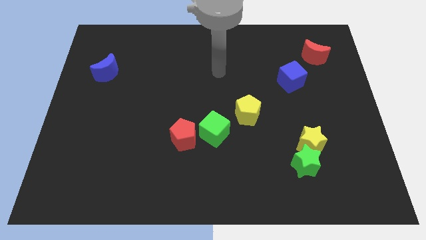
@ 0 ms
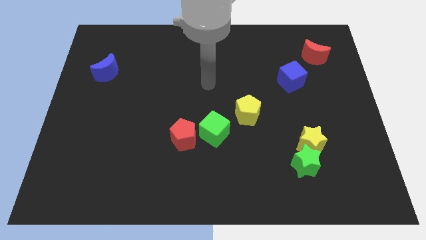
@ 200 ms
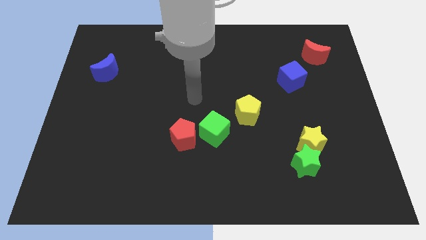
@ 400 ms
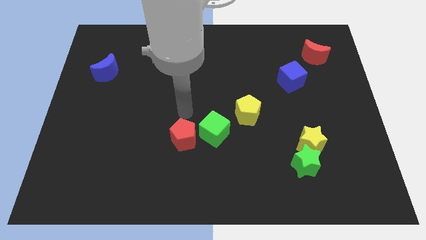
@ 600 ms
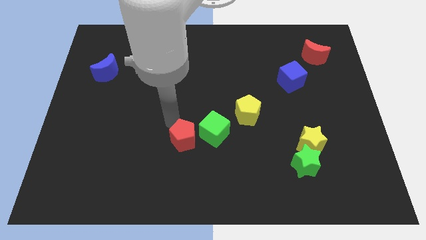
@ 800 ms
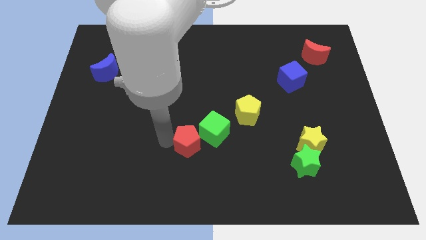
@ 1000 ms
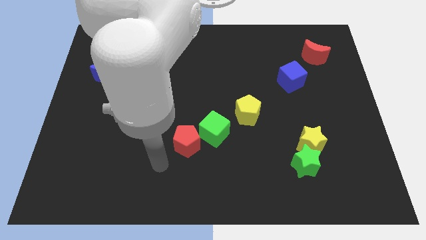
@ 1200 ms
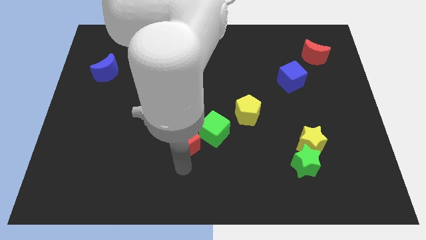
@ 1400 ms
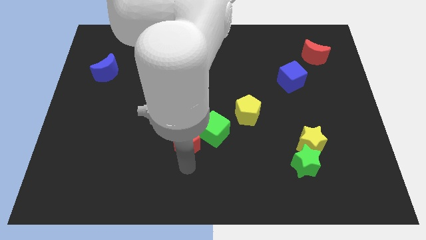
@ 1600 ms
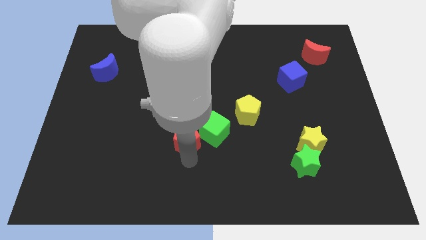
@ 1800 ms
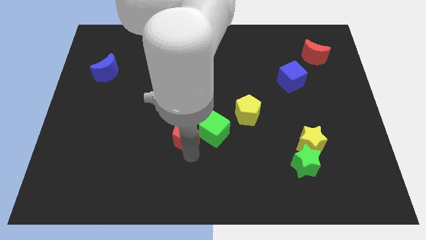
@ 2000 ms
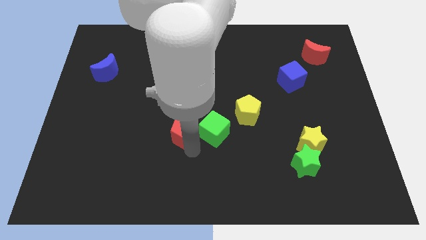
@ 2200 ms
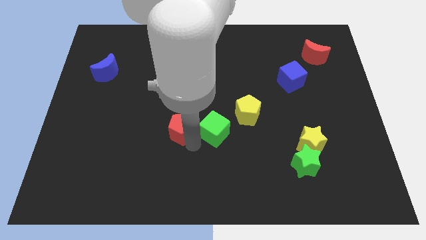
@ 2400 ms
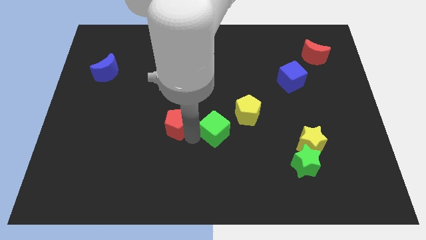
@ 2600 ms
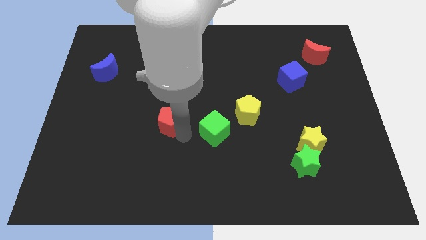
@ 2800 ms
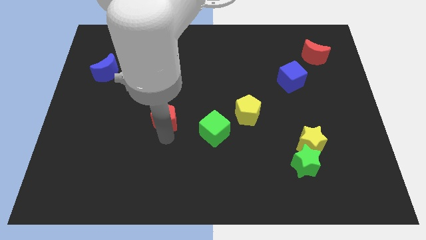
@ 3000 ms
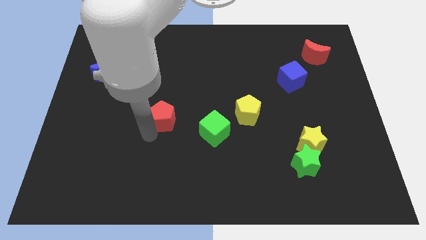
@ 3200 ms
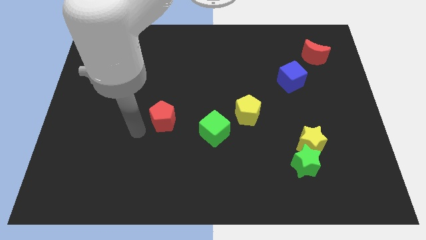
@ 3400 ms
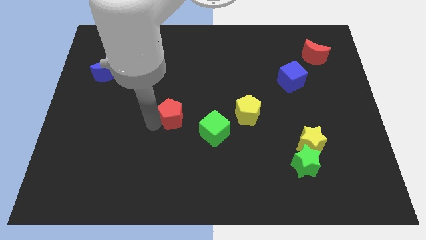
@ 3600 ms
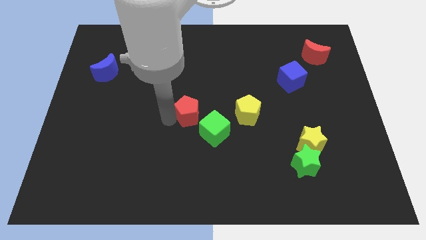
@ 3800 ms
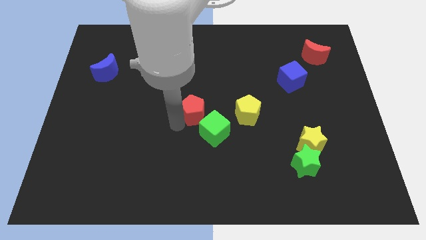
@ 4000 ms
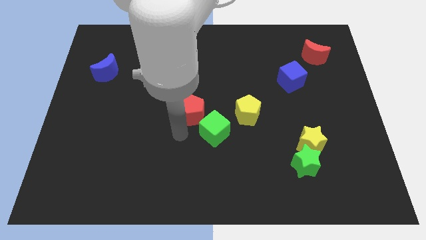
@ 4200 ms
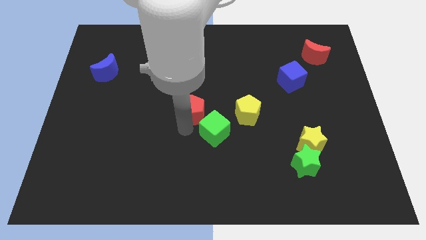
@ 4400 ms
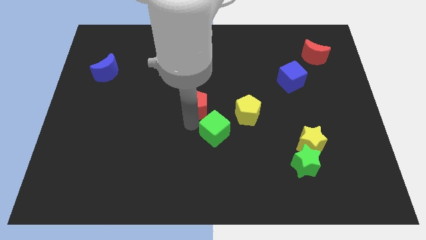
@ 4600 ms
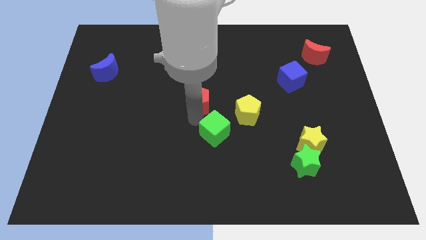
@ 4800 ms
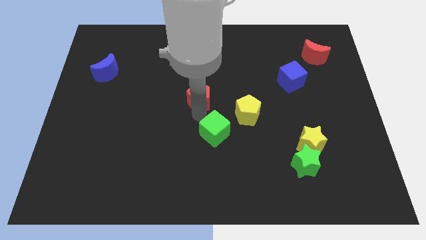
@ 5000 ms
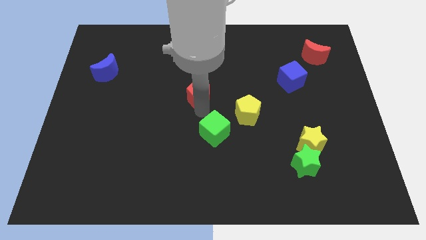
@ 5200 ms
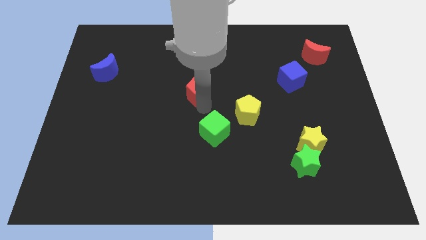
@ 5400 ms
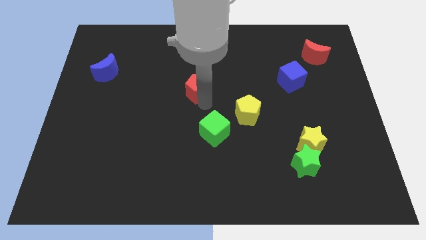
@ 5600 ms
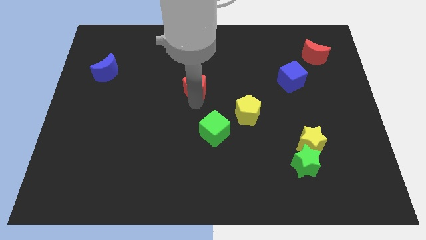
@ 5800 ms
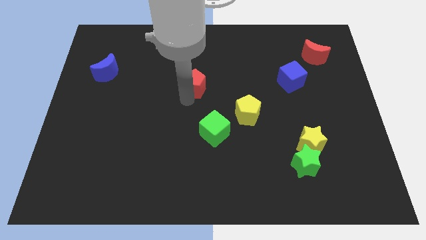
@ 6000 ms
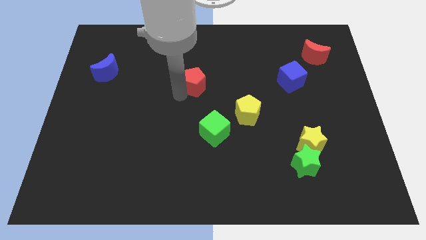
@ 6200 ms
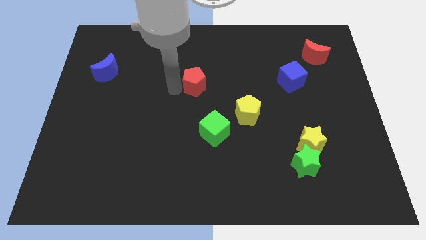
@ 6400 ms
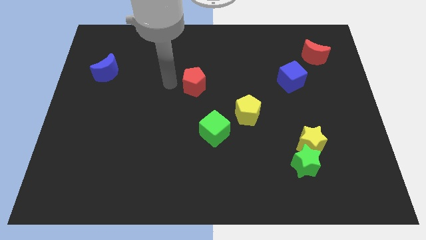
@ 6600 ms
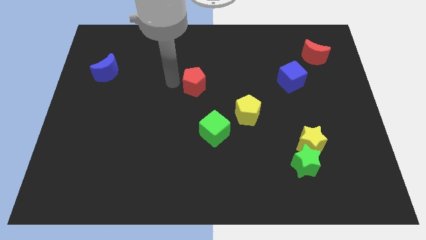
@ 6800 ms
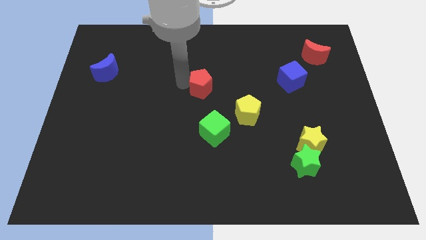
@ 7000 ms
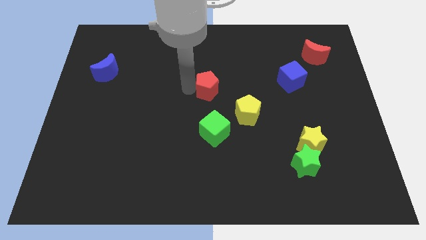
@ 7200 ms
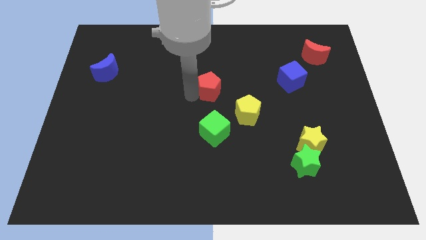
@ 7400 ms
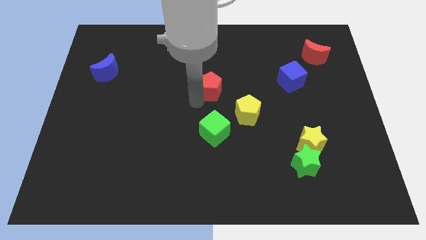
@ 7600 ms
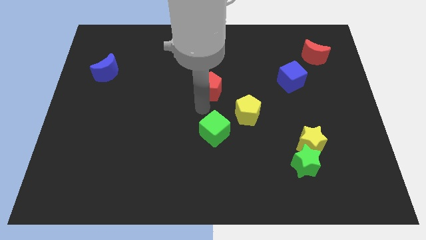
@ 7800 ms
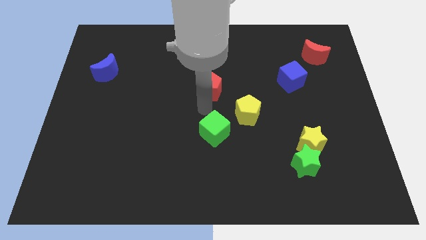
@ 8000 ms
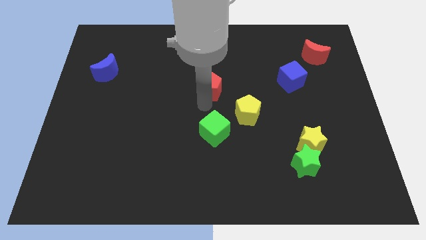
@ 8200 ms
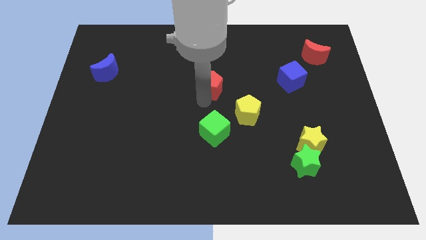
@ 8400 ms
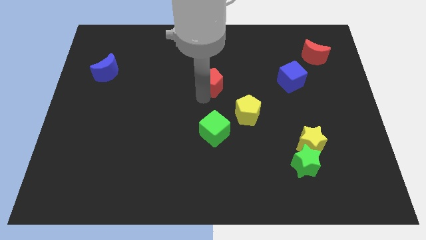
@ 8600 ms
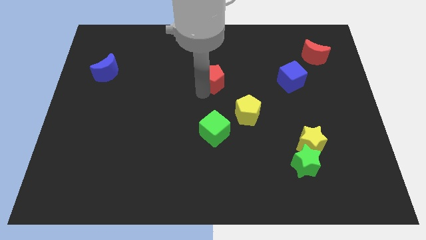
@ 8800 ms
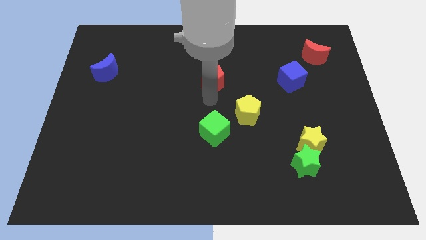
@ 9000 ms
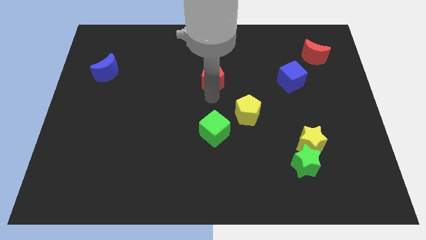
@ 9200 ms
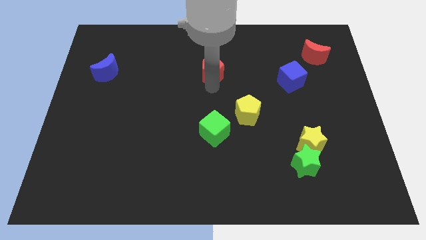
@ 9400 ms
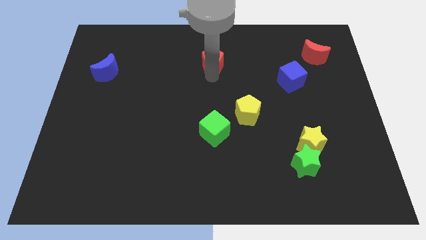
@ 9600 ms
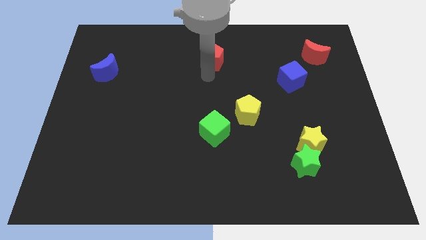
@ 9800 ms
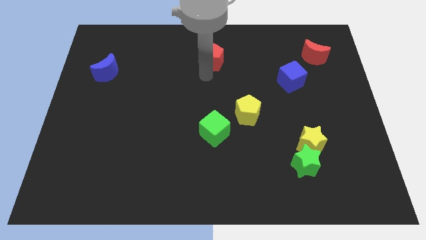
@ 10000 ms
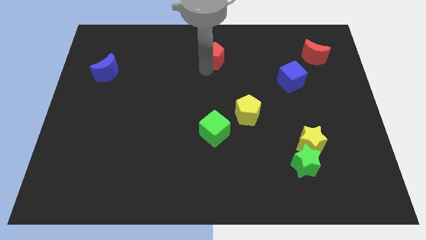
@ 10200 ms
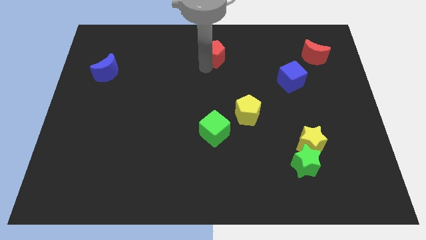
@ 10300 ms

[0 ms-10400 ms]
put the red pentagon to the top

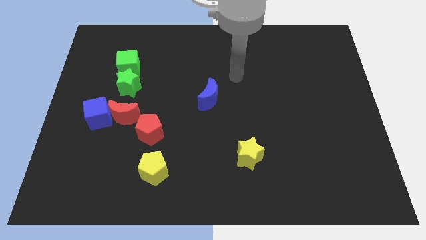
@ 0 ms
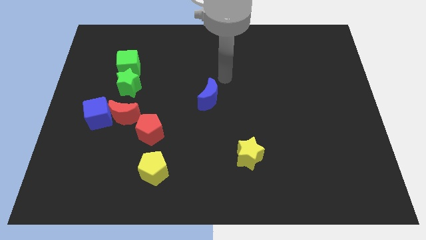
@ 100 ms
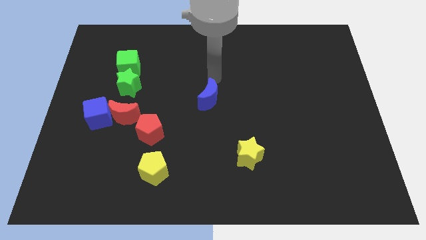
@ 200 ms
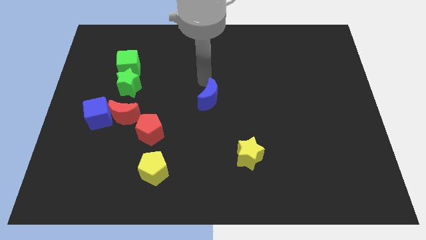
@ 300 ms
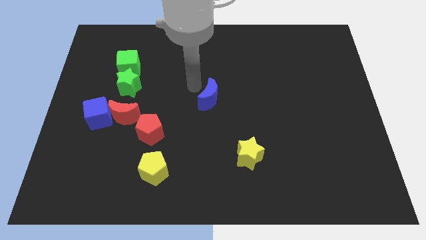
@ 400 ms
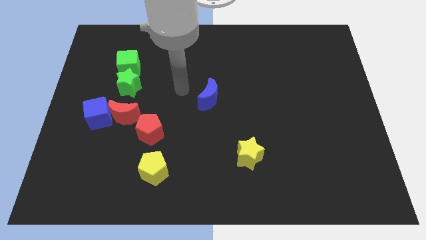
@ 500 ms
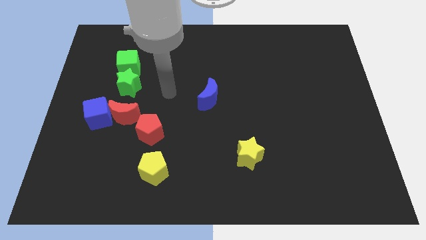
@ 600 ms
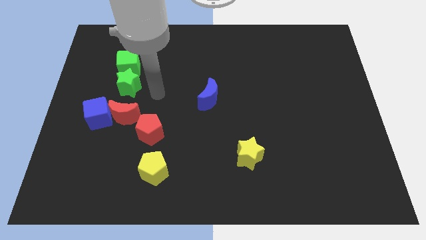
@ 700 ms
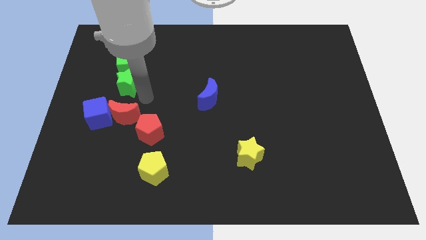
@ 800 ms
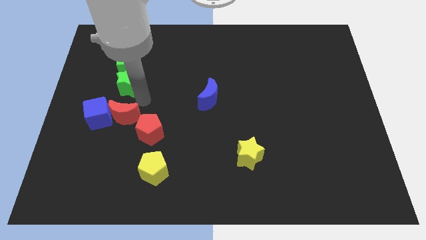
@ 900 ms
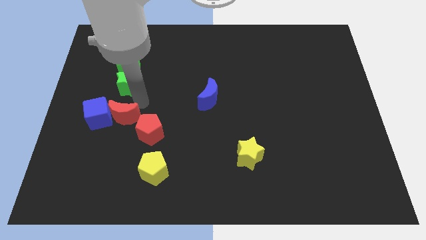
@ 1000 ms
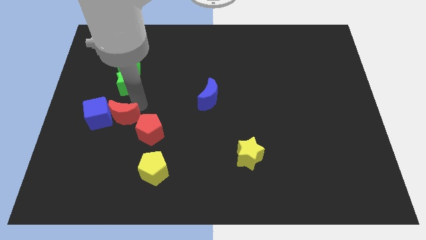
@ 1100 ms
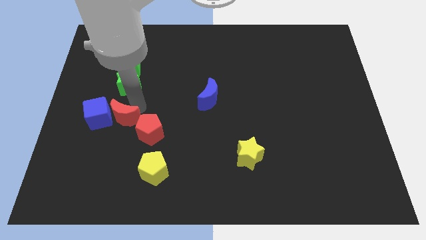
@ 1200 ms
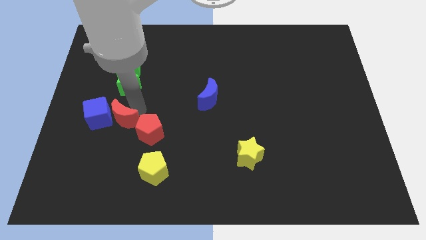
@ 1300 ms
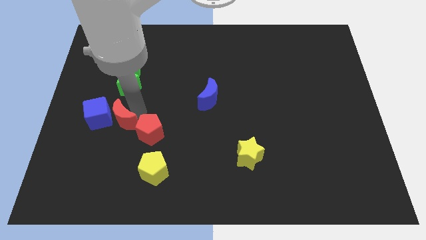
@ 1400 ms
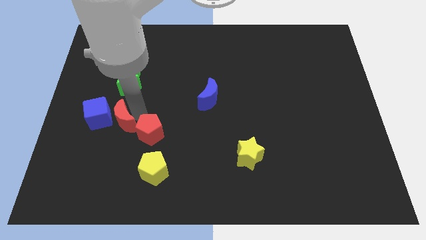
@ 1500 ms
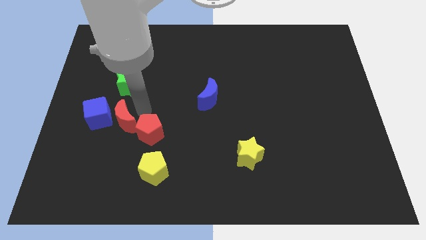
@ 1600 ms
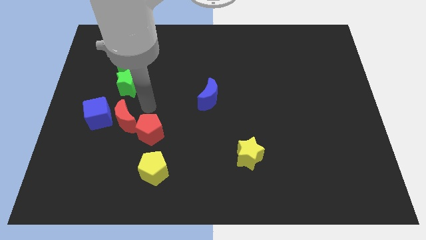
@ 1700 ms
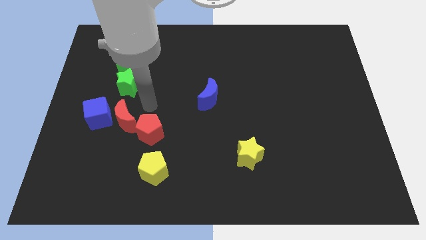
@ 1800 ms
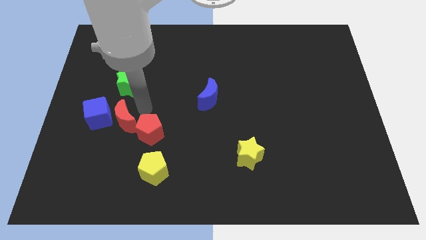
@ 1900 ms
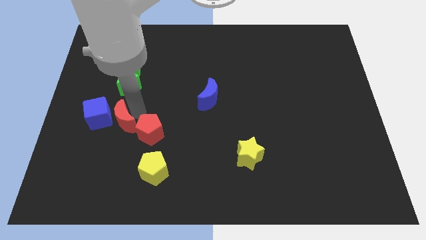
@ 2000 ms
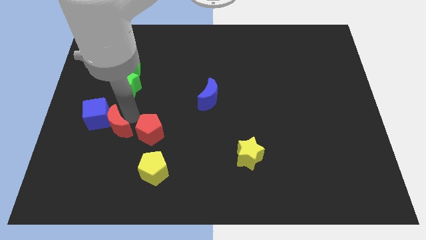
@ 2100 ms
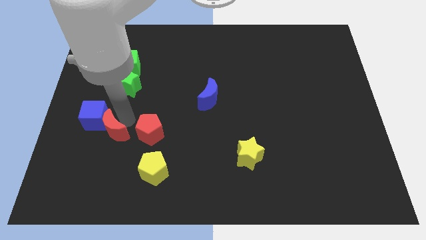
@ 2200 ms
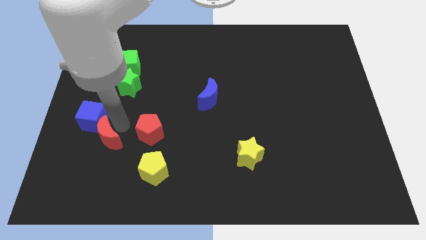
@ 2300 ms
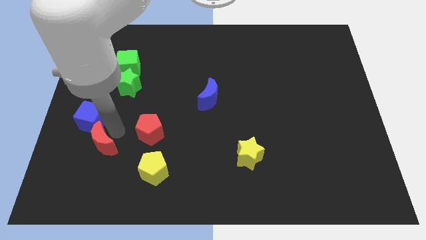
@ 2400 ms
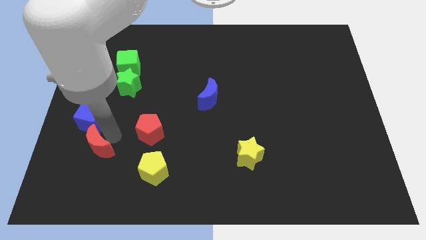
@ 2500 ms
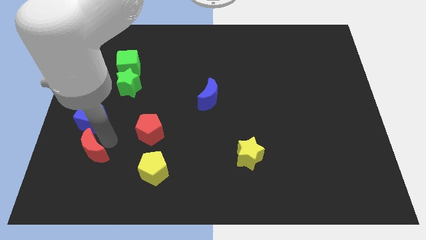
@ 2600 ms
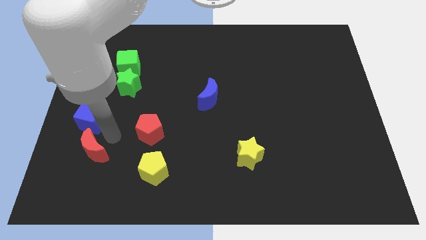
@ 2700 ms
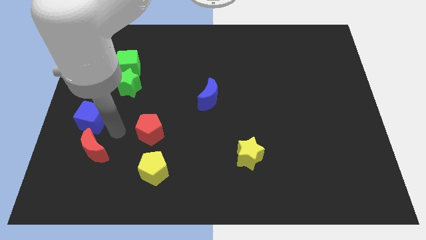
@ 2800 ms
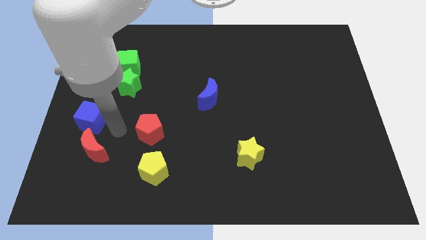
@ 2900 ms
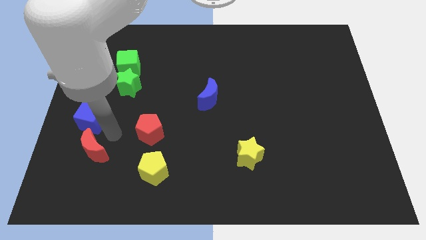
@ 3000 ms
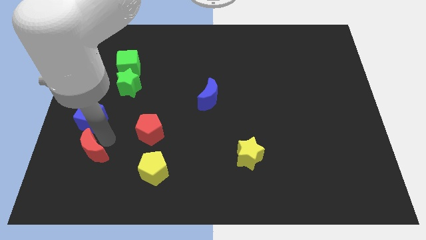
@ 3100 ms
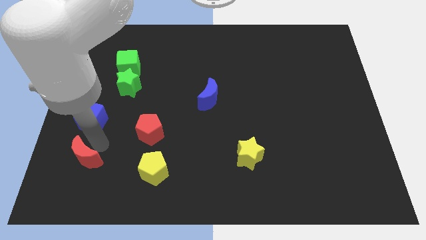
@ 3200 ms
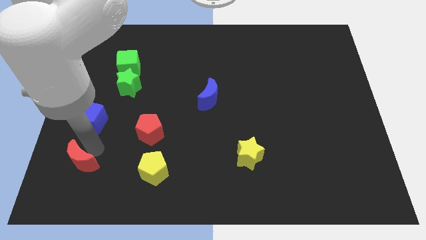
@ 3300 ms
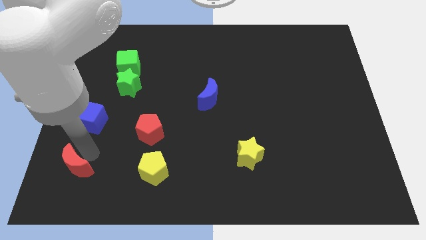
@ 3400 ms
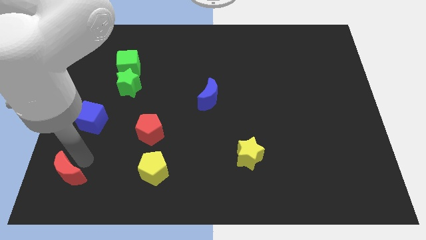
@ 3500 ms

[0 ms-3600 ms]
move the red moon to the bottom left corner
